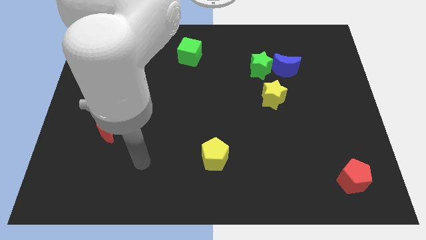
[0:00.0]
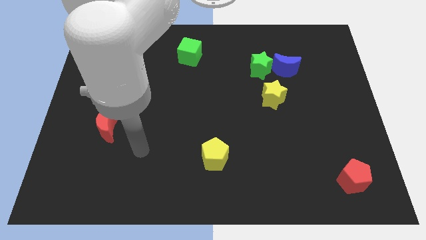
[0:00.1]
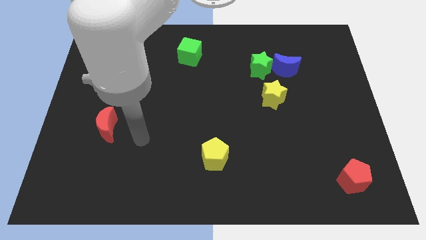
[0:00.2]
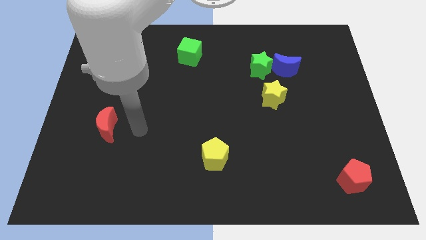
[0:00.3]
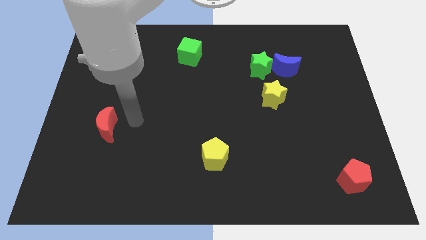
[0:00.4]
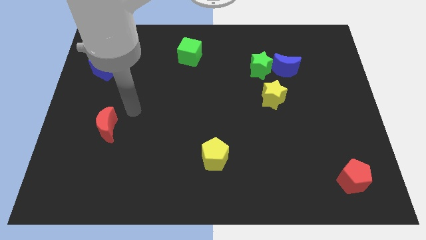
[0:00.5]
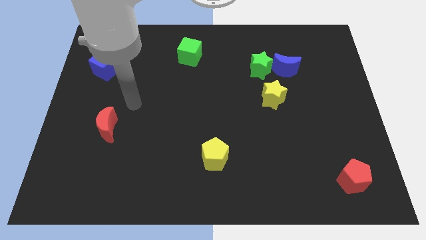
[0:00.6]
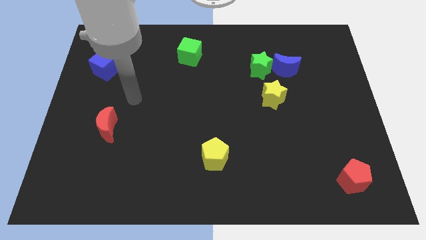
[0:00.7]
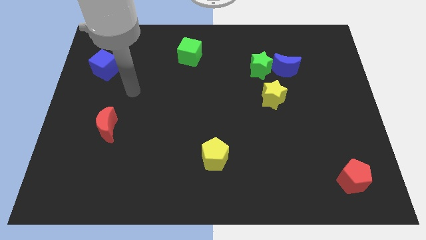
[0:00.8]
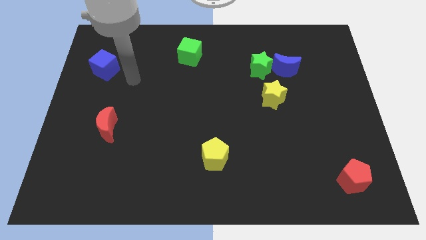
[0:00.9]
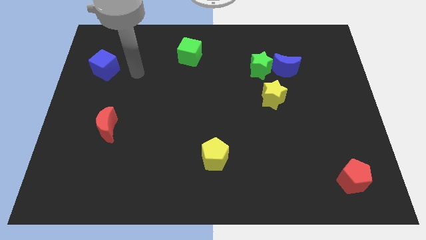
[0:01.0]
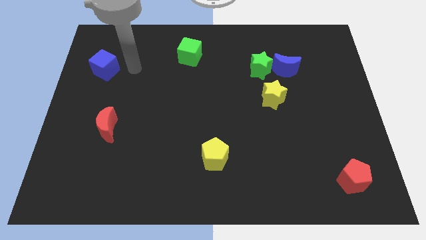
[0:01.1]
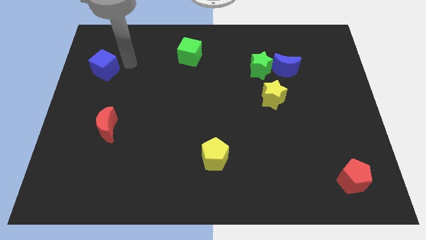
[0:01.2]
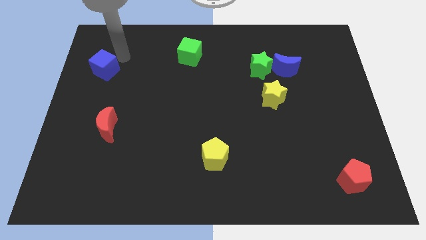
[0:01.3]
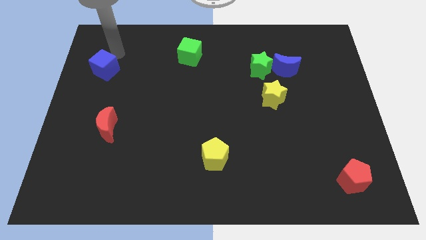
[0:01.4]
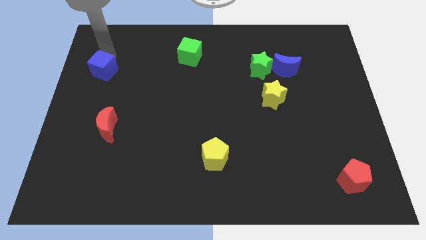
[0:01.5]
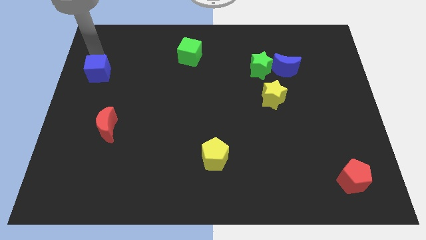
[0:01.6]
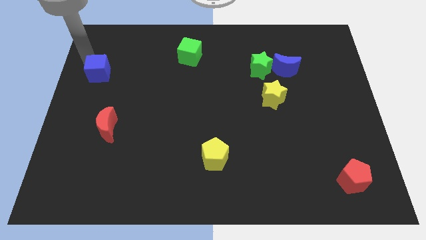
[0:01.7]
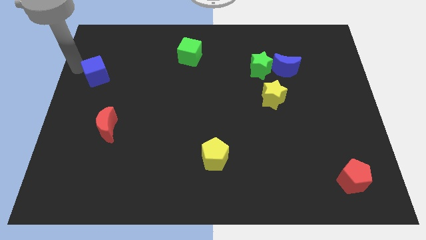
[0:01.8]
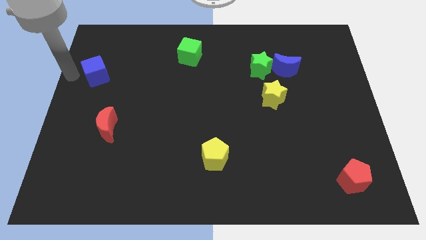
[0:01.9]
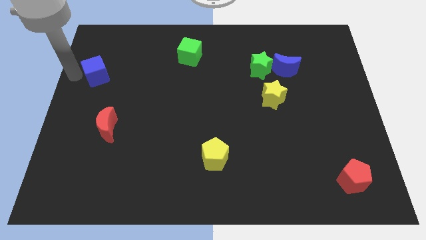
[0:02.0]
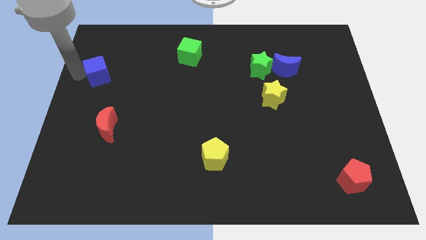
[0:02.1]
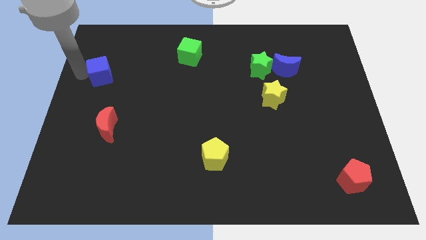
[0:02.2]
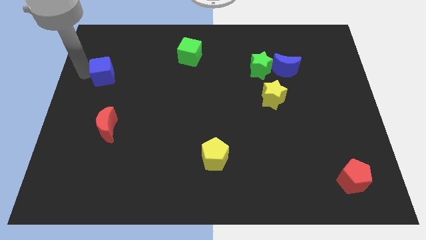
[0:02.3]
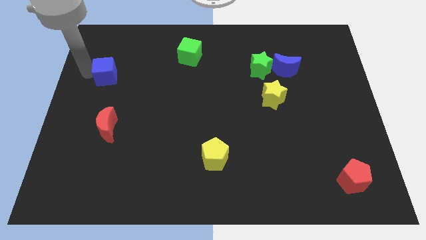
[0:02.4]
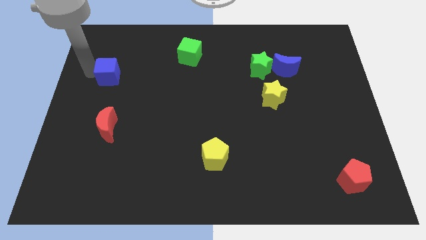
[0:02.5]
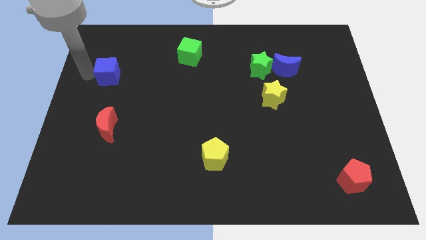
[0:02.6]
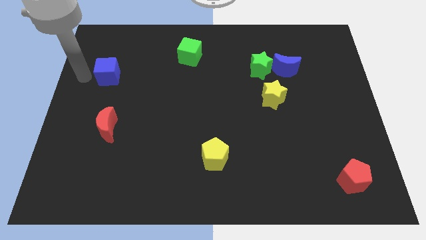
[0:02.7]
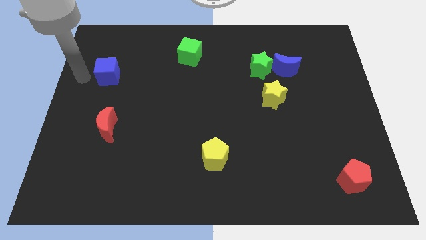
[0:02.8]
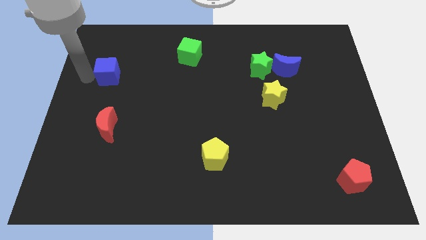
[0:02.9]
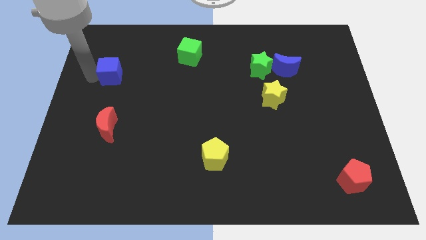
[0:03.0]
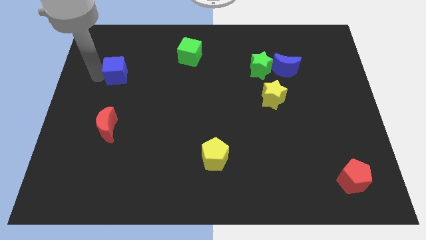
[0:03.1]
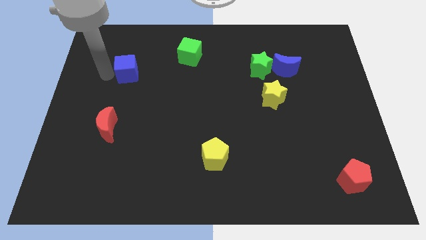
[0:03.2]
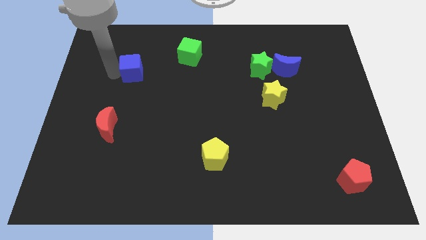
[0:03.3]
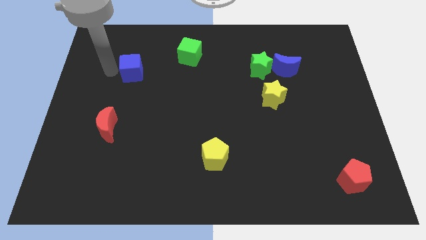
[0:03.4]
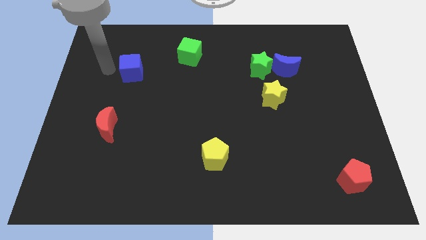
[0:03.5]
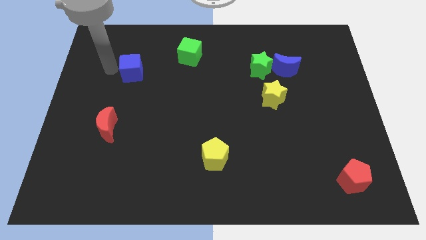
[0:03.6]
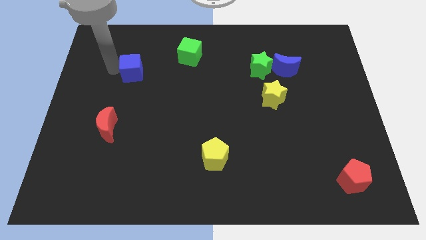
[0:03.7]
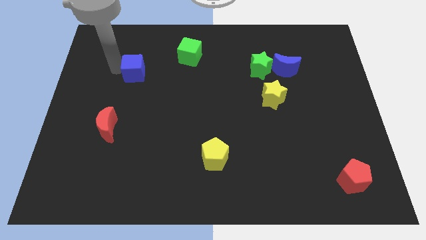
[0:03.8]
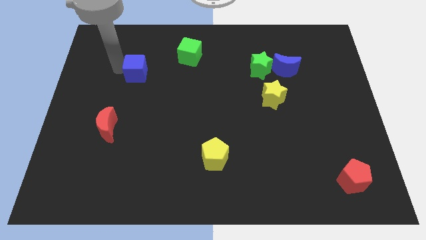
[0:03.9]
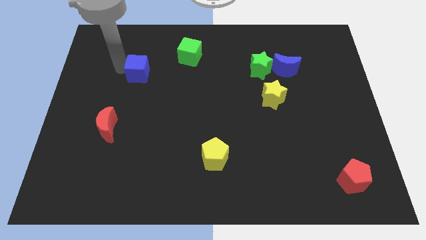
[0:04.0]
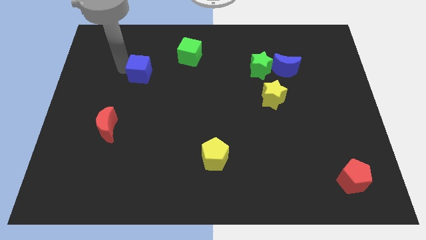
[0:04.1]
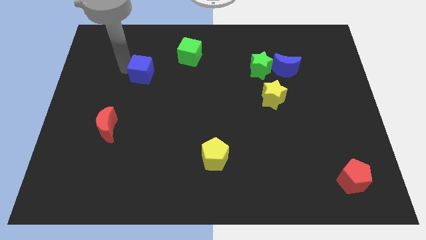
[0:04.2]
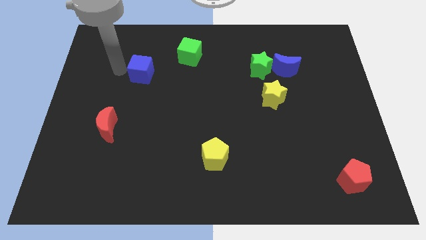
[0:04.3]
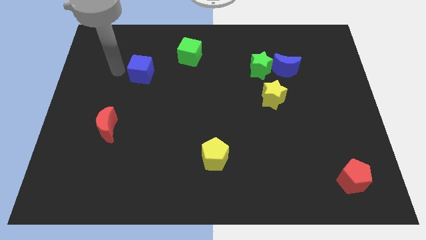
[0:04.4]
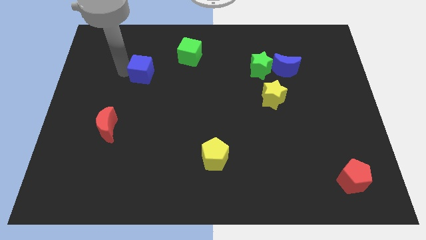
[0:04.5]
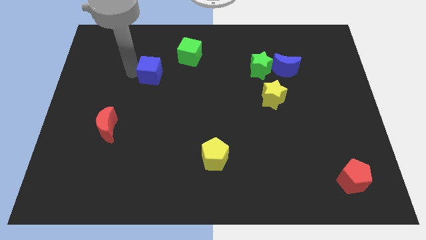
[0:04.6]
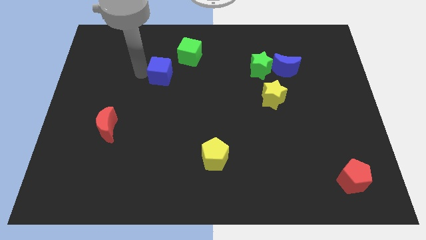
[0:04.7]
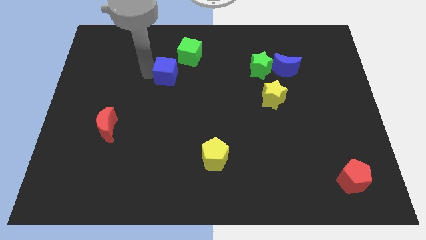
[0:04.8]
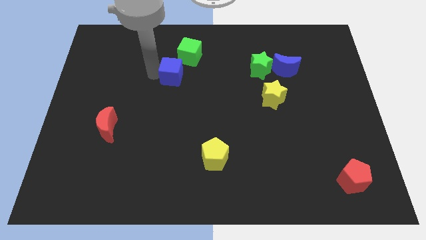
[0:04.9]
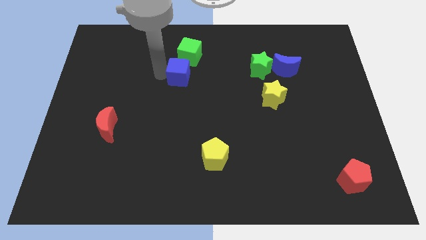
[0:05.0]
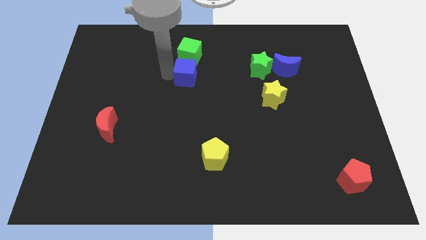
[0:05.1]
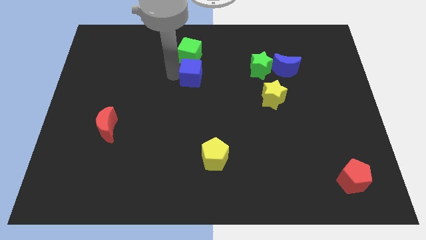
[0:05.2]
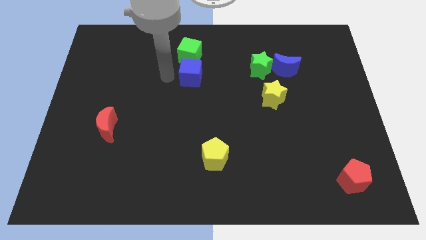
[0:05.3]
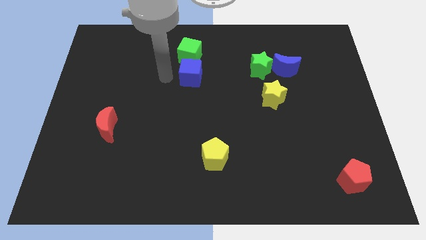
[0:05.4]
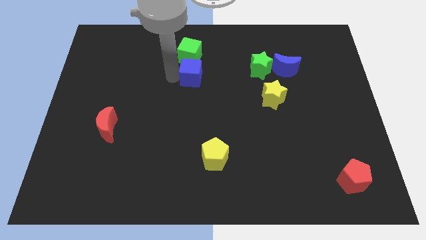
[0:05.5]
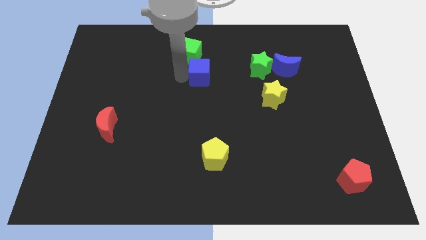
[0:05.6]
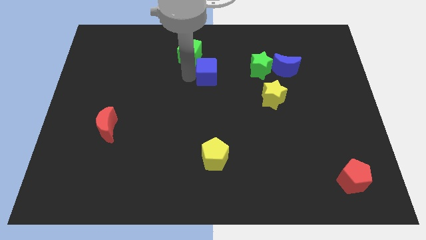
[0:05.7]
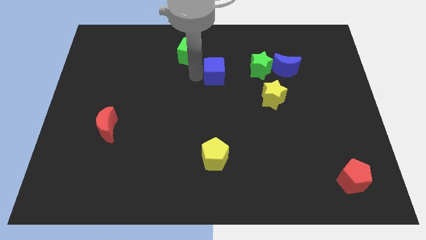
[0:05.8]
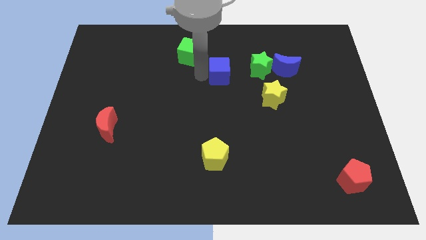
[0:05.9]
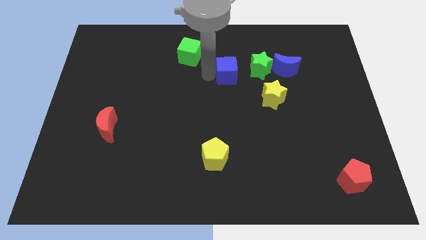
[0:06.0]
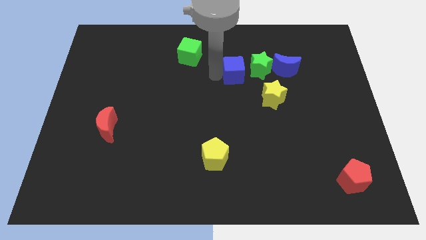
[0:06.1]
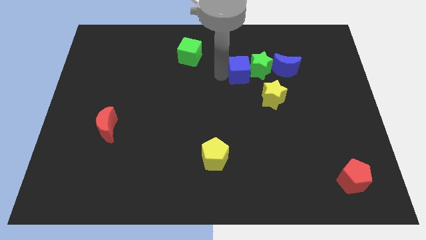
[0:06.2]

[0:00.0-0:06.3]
push the blue cube to the green star

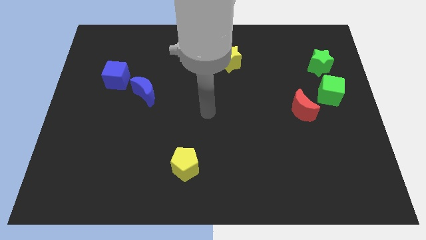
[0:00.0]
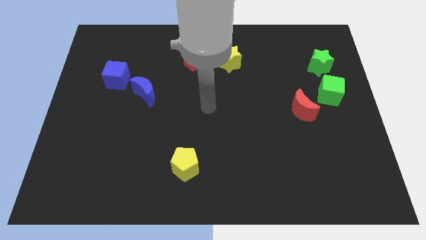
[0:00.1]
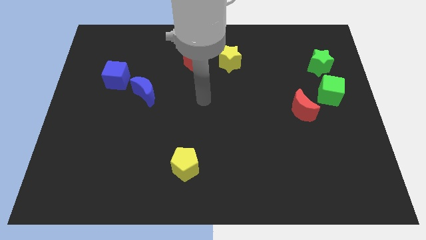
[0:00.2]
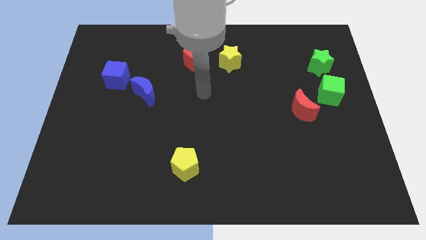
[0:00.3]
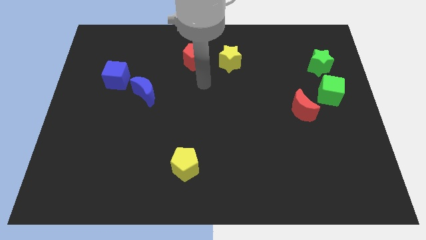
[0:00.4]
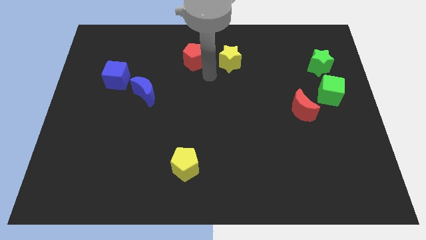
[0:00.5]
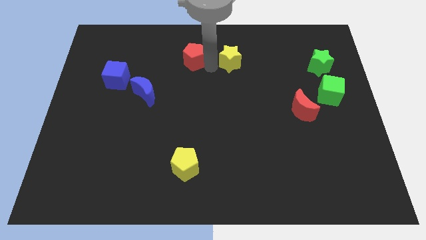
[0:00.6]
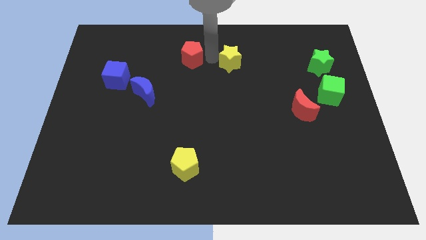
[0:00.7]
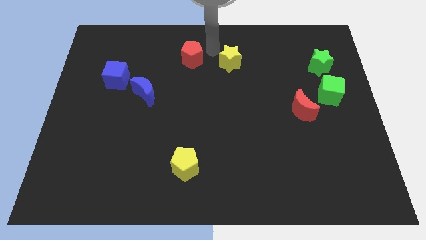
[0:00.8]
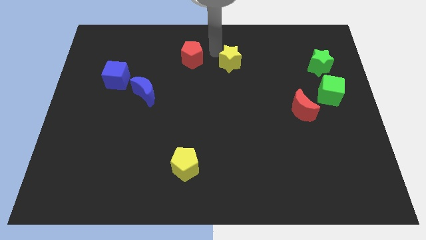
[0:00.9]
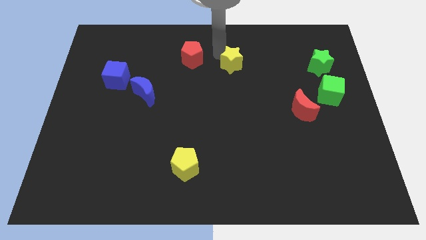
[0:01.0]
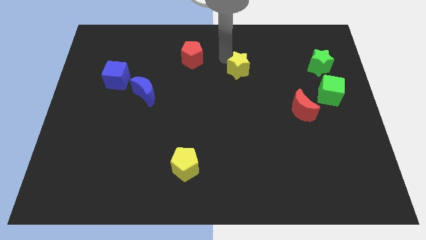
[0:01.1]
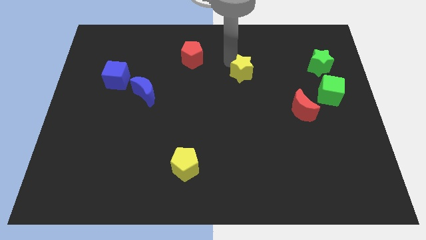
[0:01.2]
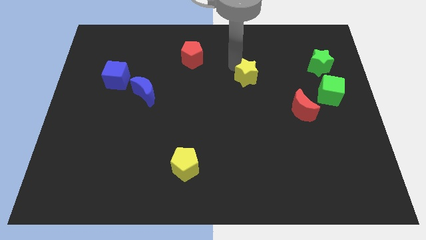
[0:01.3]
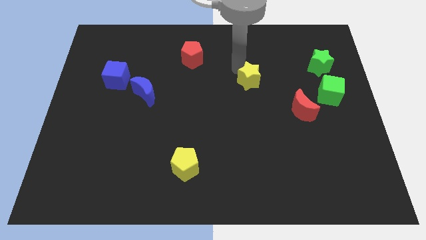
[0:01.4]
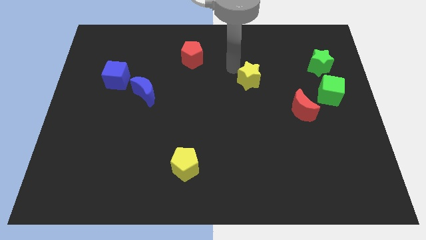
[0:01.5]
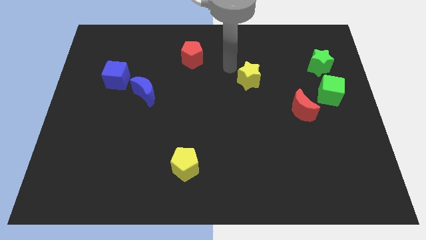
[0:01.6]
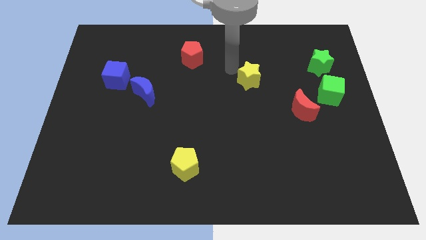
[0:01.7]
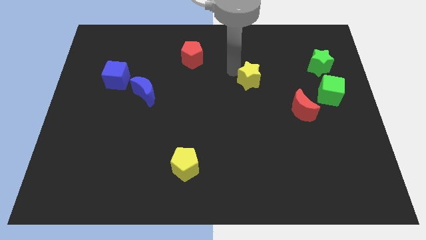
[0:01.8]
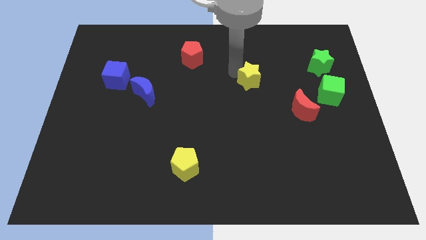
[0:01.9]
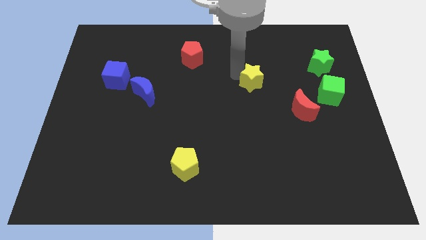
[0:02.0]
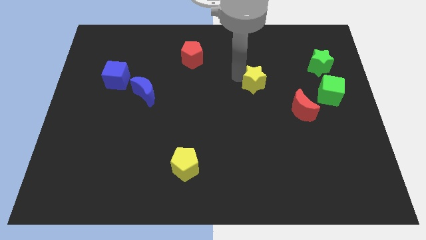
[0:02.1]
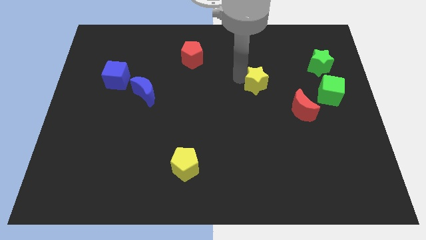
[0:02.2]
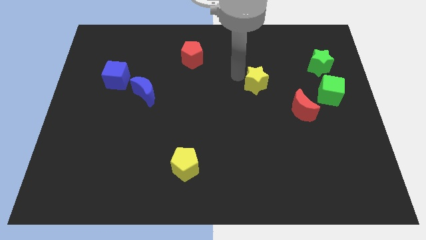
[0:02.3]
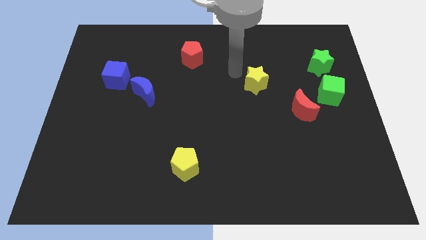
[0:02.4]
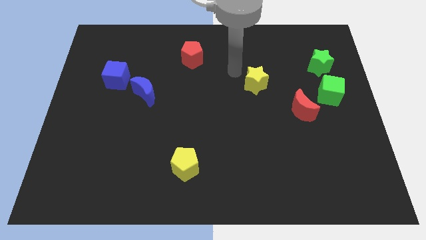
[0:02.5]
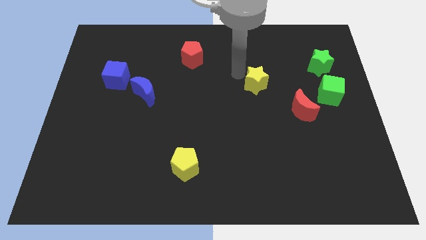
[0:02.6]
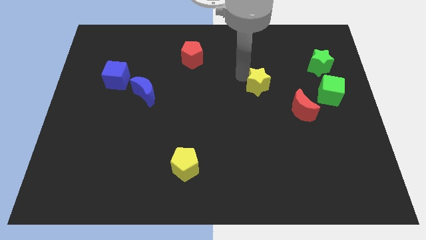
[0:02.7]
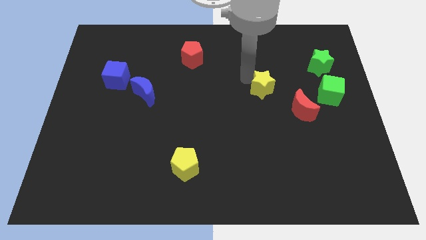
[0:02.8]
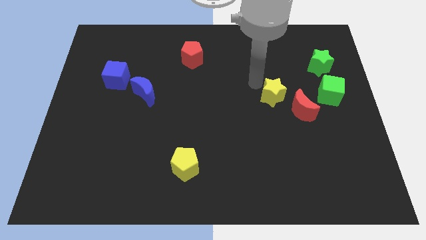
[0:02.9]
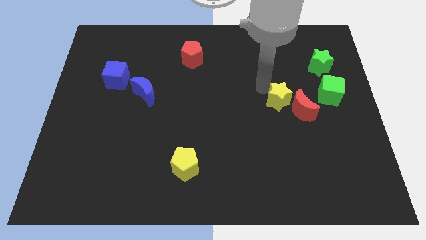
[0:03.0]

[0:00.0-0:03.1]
put the yellow star to the red moon
